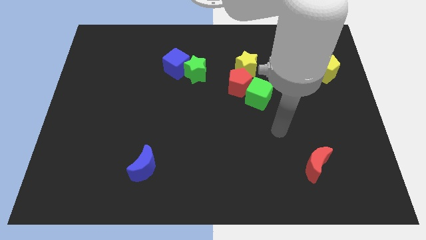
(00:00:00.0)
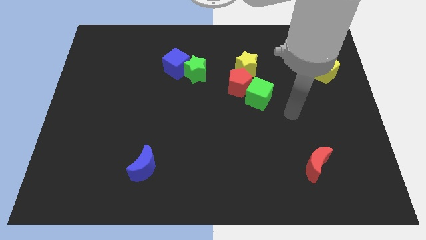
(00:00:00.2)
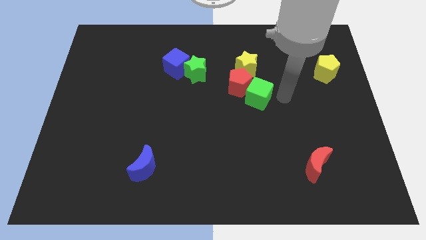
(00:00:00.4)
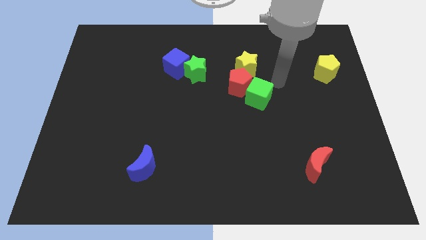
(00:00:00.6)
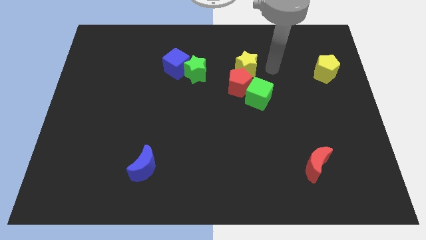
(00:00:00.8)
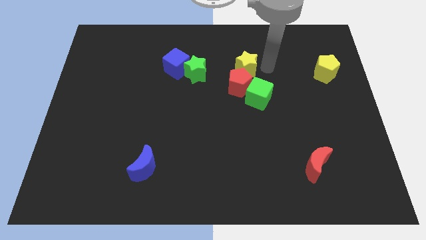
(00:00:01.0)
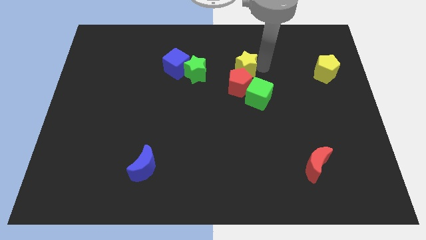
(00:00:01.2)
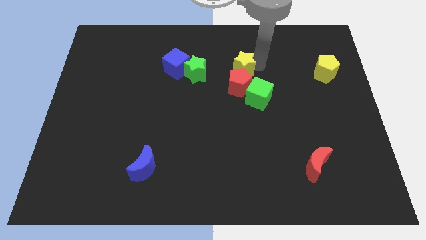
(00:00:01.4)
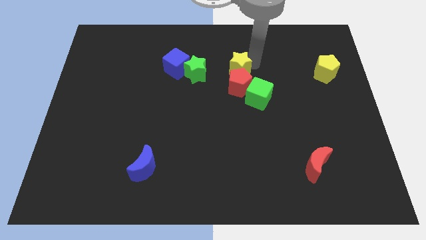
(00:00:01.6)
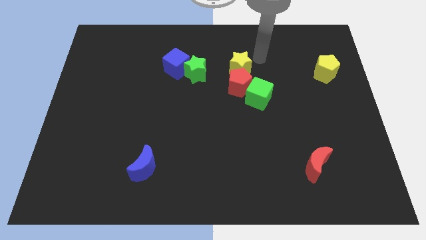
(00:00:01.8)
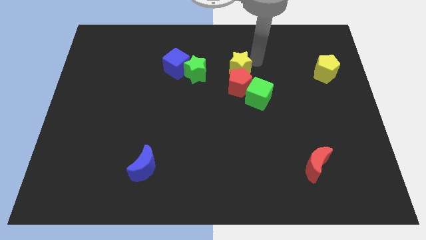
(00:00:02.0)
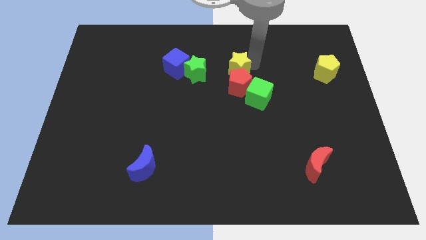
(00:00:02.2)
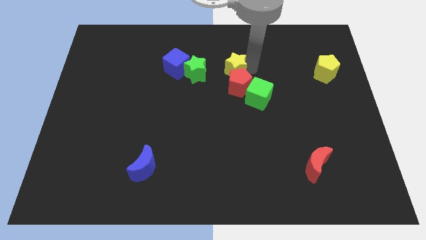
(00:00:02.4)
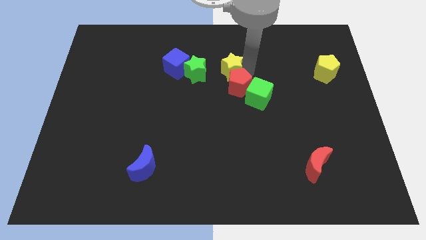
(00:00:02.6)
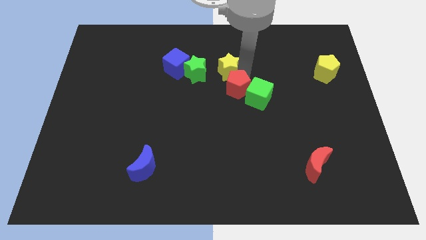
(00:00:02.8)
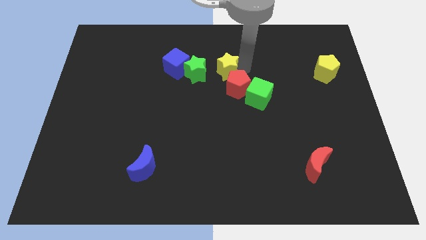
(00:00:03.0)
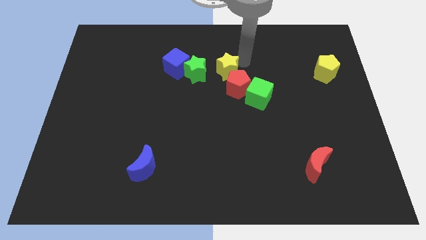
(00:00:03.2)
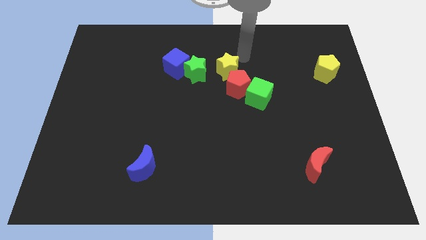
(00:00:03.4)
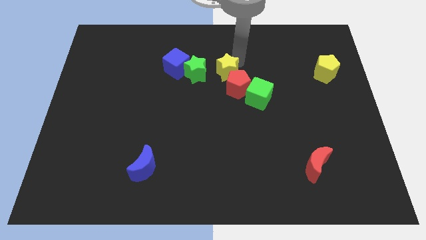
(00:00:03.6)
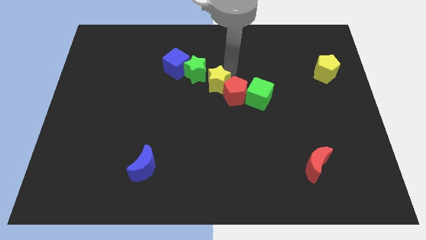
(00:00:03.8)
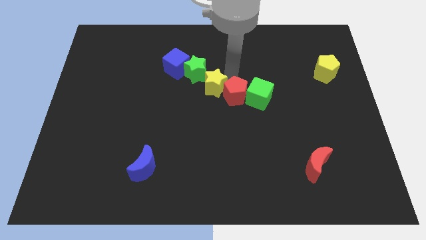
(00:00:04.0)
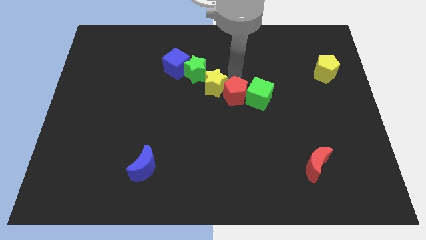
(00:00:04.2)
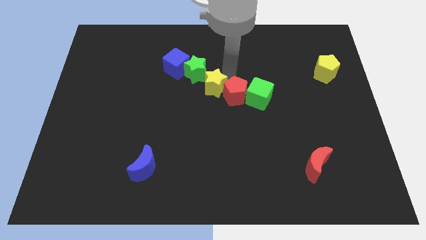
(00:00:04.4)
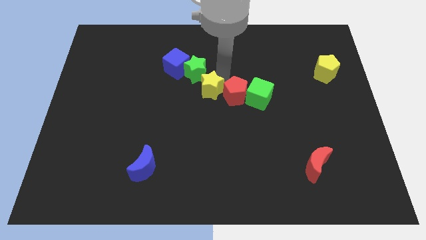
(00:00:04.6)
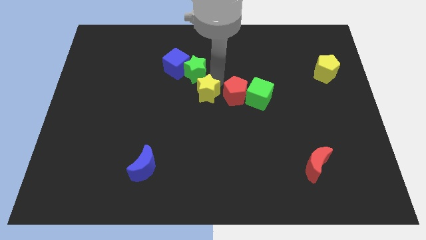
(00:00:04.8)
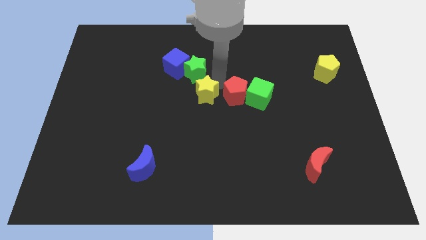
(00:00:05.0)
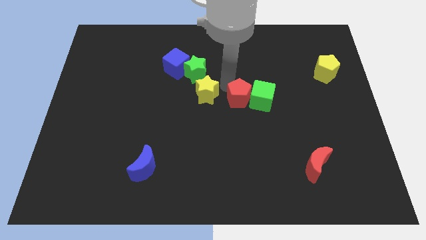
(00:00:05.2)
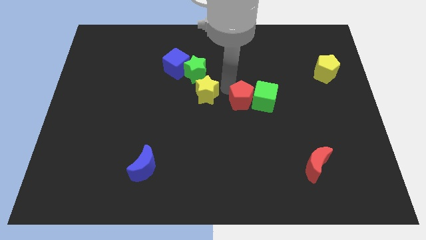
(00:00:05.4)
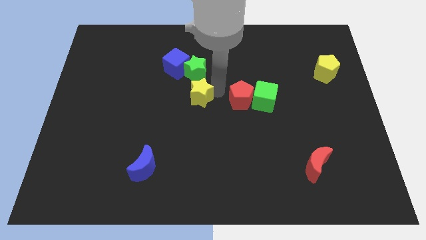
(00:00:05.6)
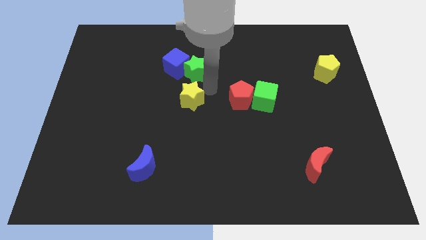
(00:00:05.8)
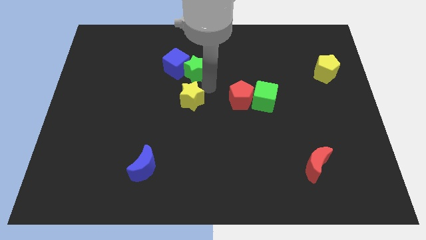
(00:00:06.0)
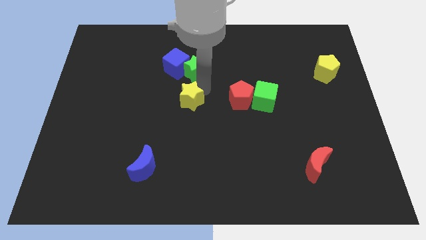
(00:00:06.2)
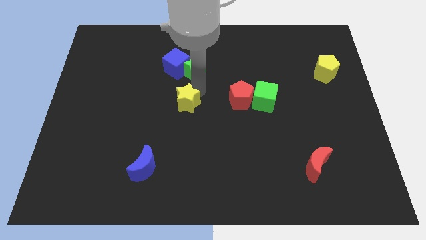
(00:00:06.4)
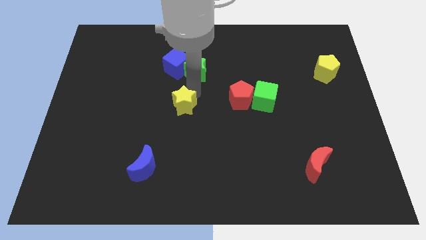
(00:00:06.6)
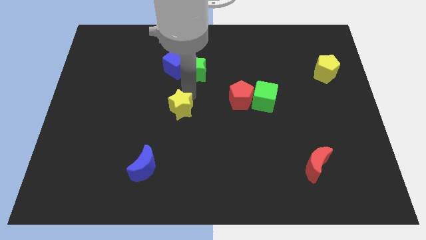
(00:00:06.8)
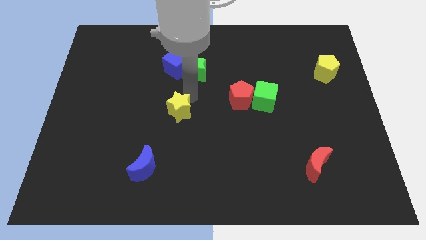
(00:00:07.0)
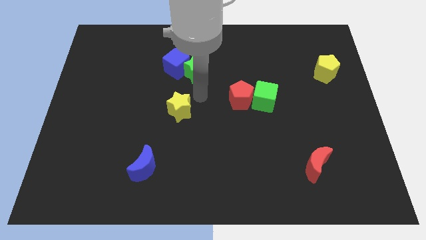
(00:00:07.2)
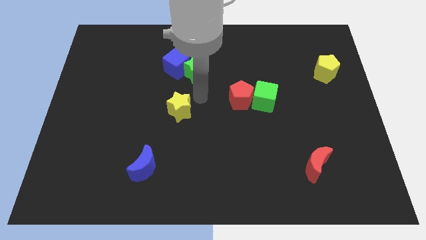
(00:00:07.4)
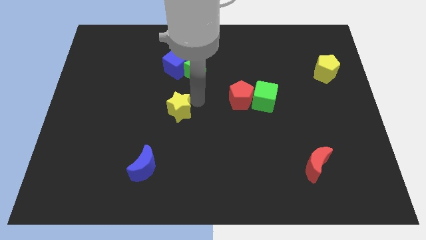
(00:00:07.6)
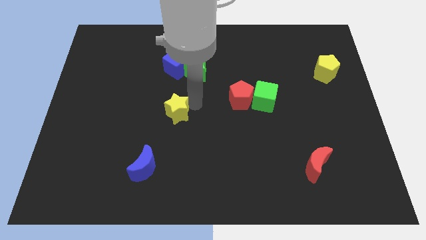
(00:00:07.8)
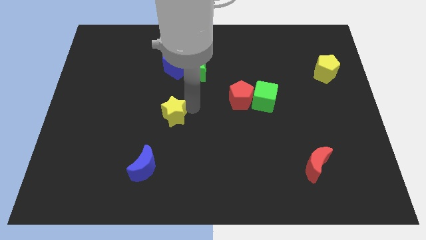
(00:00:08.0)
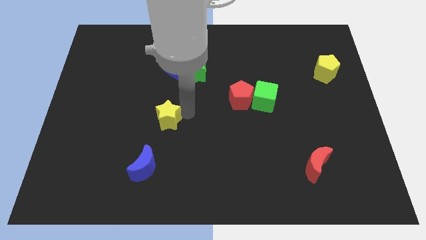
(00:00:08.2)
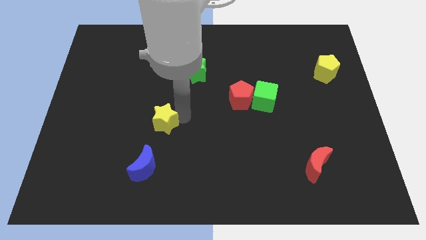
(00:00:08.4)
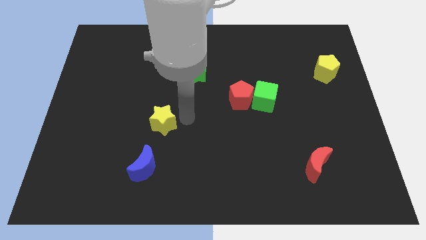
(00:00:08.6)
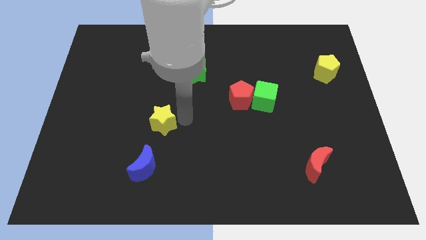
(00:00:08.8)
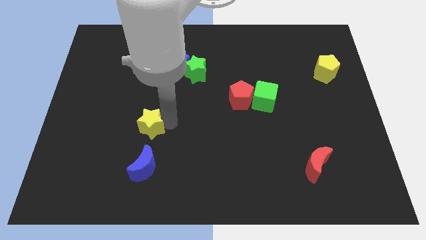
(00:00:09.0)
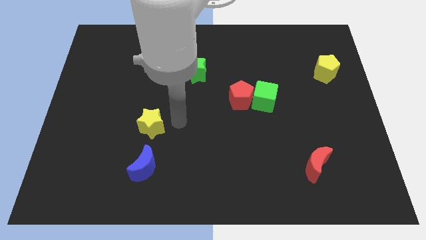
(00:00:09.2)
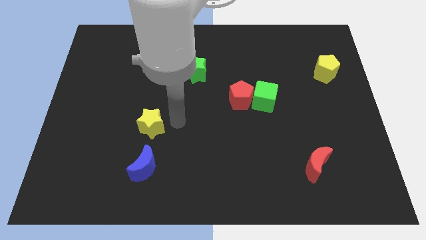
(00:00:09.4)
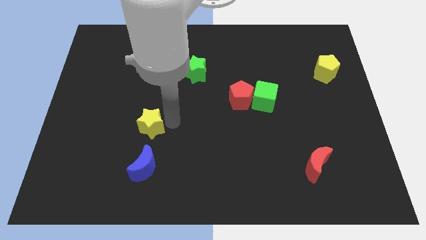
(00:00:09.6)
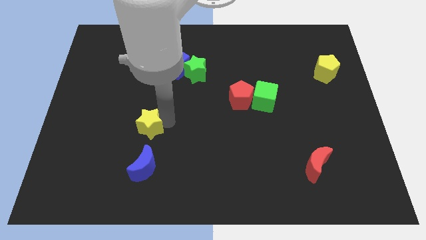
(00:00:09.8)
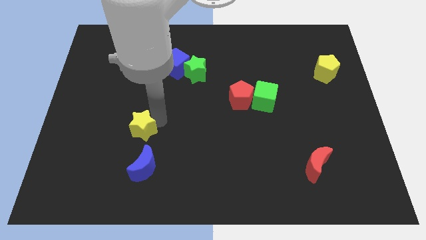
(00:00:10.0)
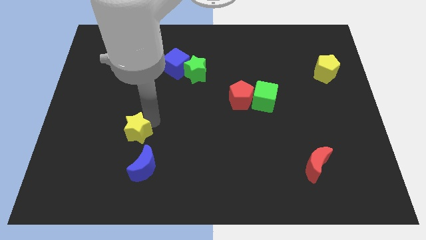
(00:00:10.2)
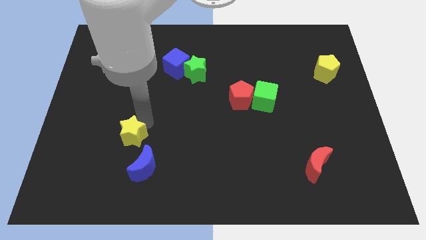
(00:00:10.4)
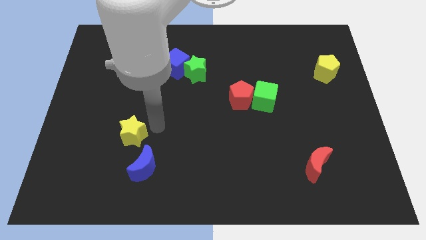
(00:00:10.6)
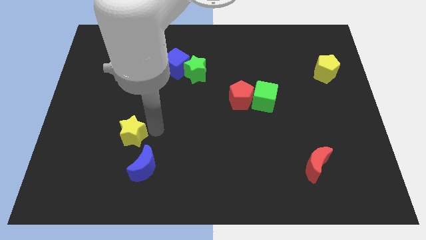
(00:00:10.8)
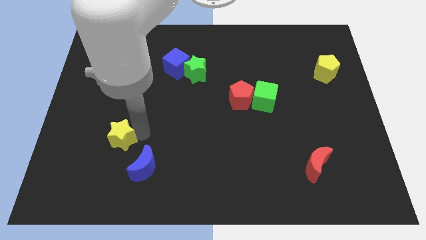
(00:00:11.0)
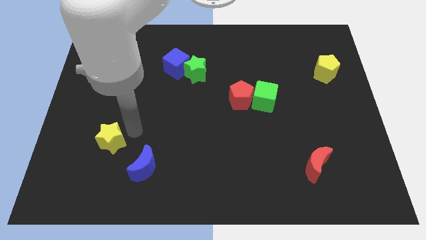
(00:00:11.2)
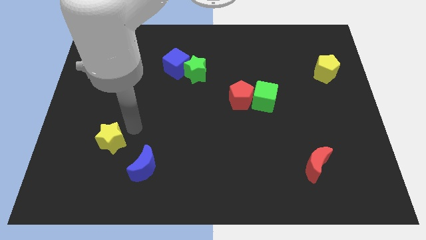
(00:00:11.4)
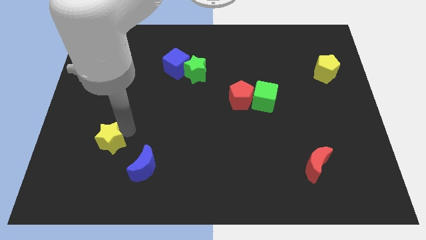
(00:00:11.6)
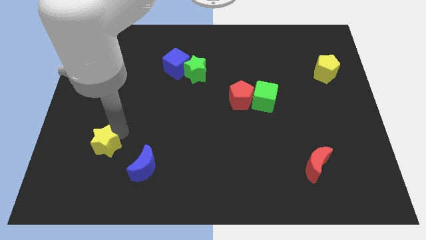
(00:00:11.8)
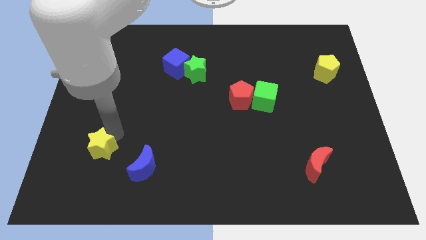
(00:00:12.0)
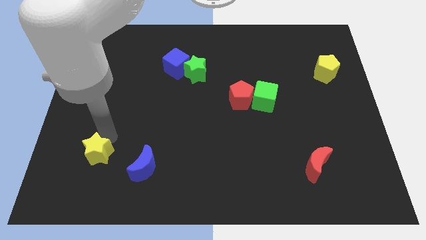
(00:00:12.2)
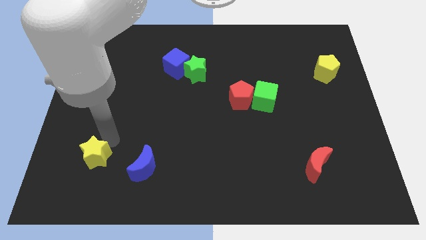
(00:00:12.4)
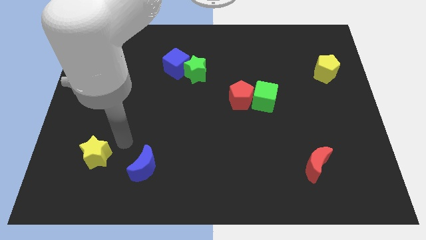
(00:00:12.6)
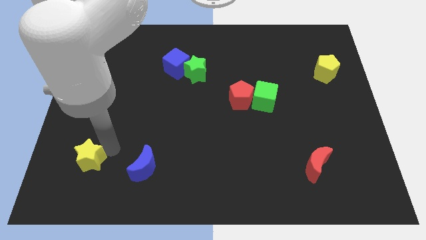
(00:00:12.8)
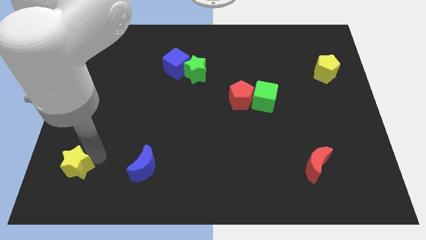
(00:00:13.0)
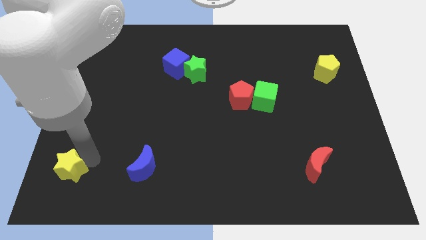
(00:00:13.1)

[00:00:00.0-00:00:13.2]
put the yellow star to the bottom left corner

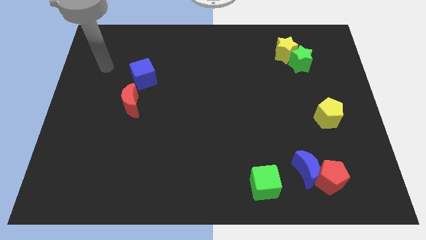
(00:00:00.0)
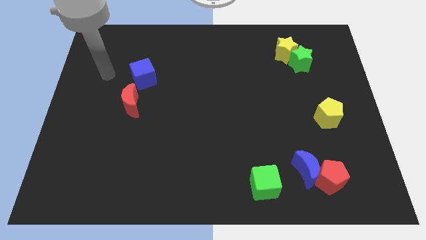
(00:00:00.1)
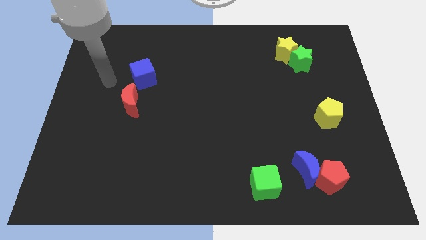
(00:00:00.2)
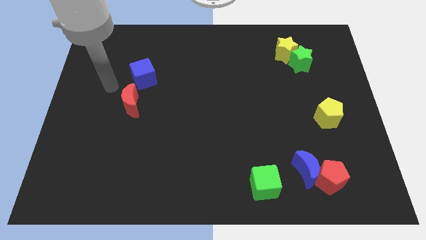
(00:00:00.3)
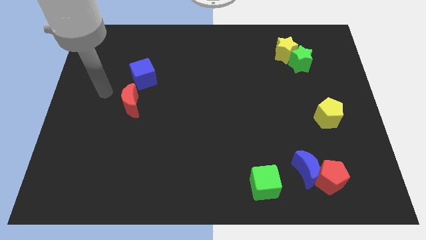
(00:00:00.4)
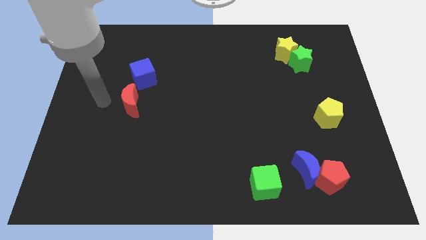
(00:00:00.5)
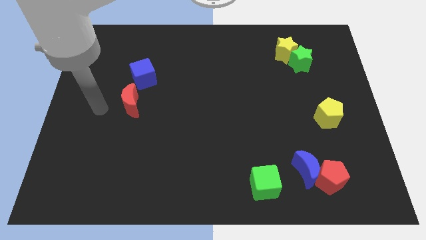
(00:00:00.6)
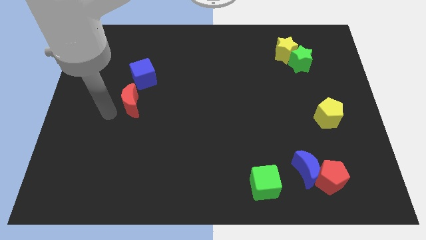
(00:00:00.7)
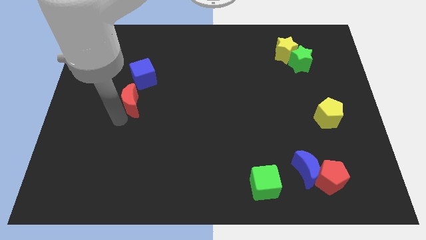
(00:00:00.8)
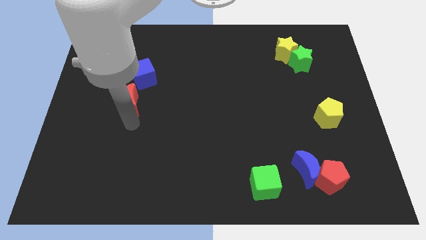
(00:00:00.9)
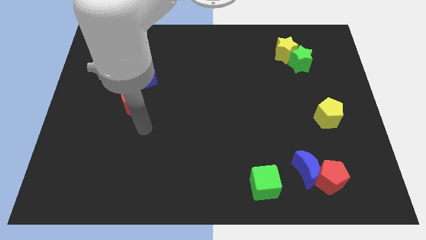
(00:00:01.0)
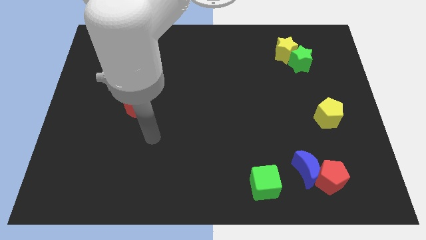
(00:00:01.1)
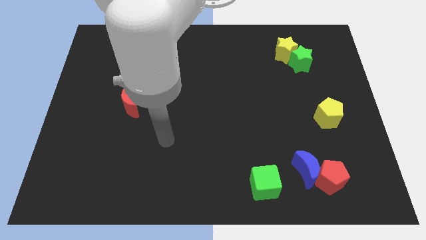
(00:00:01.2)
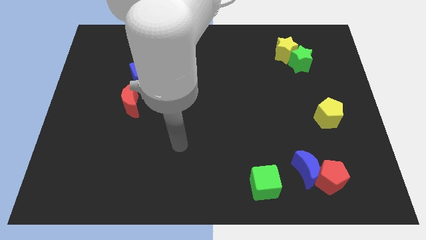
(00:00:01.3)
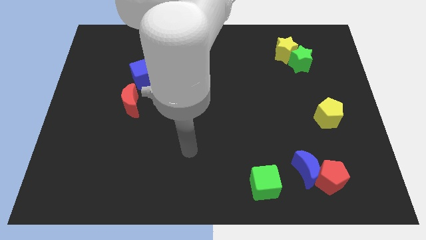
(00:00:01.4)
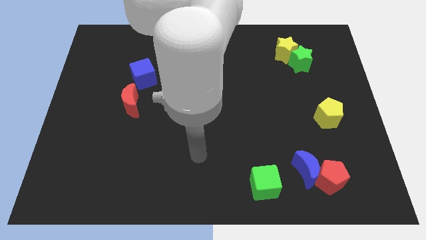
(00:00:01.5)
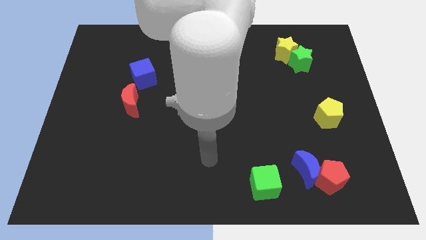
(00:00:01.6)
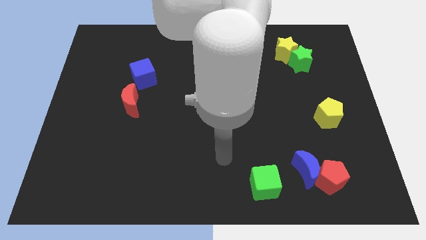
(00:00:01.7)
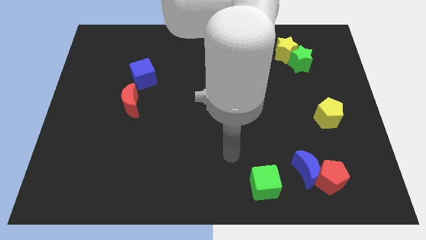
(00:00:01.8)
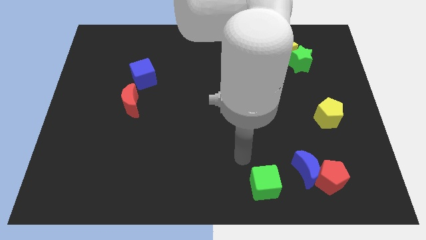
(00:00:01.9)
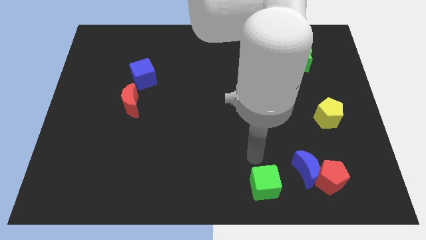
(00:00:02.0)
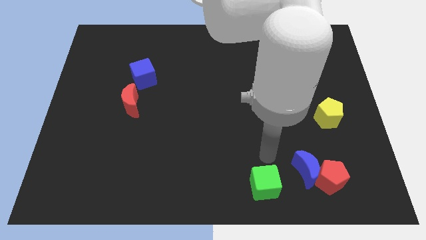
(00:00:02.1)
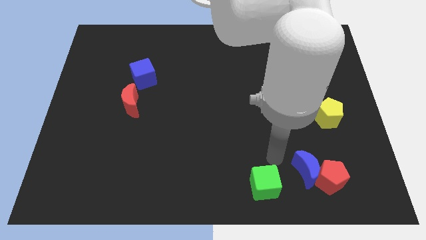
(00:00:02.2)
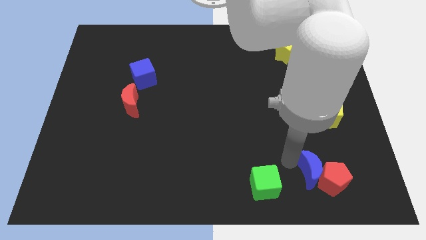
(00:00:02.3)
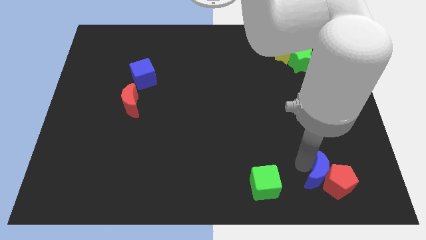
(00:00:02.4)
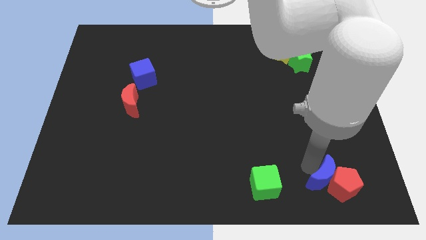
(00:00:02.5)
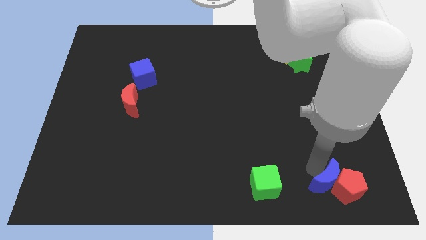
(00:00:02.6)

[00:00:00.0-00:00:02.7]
slide the red pentagon to the bottom right
